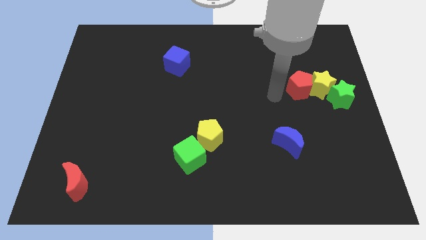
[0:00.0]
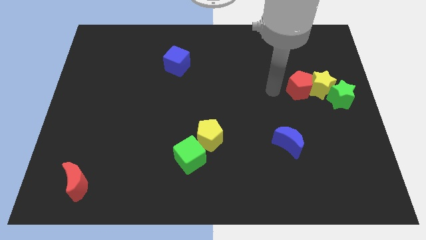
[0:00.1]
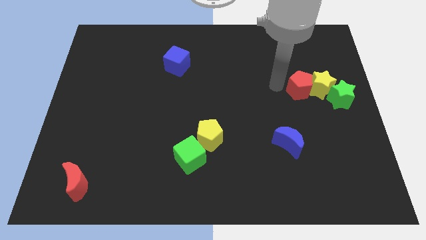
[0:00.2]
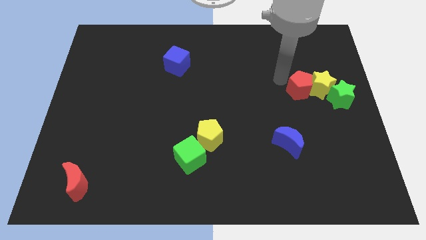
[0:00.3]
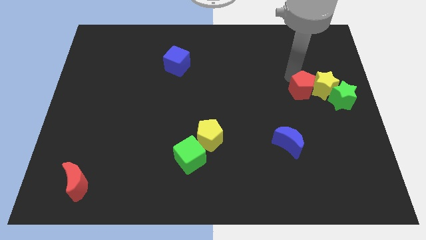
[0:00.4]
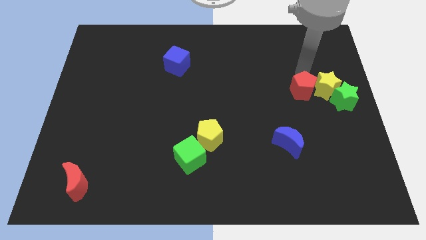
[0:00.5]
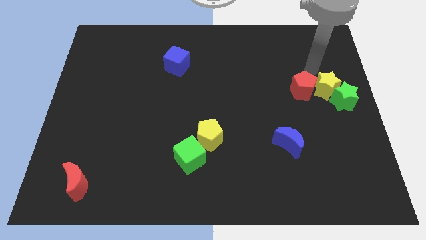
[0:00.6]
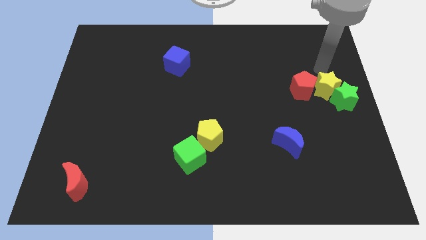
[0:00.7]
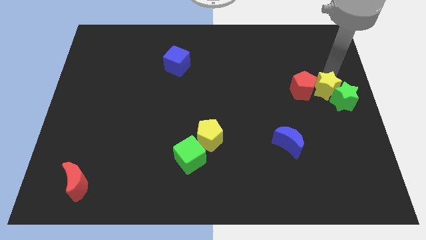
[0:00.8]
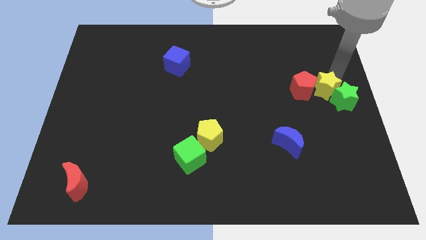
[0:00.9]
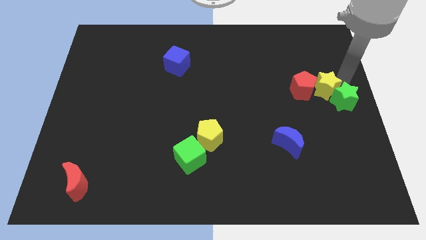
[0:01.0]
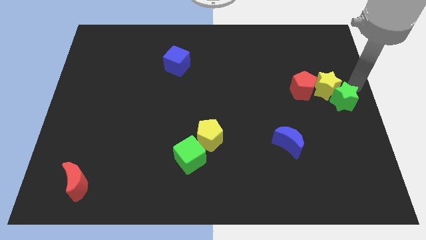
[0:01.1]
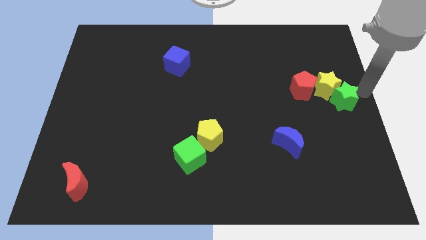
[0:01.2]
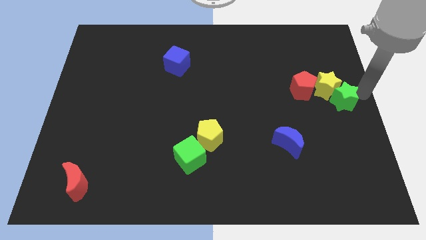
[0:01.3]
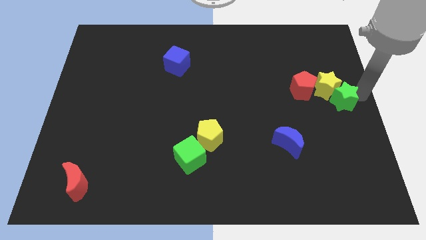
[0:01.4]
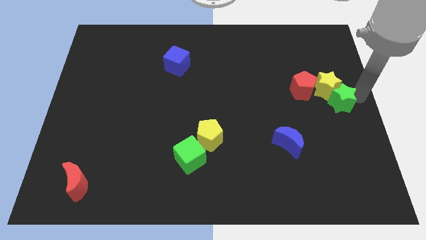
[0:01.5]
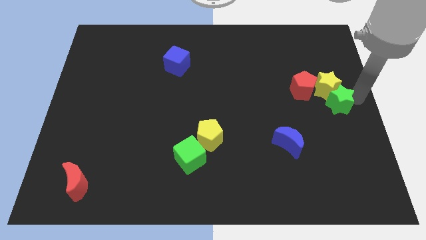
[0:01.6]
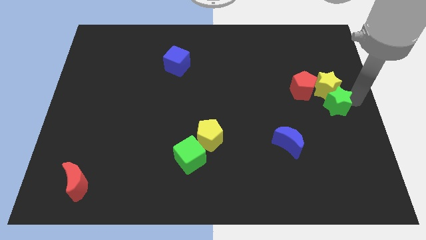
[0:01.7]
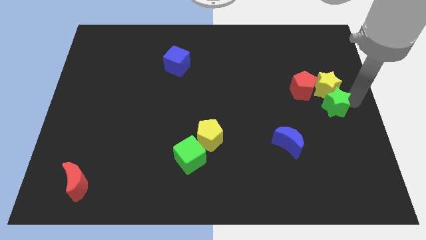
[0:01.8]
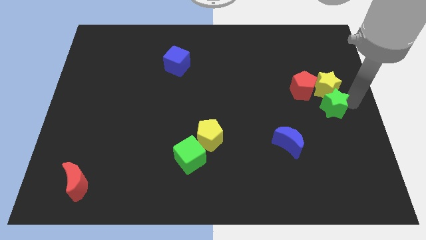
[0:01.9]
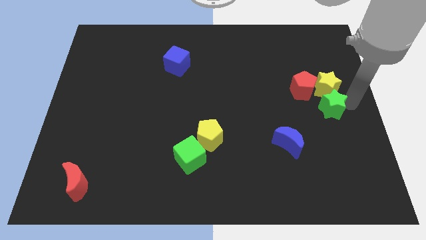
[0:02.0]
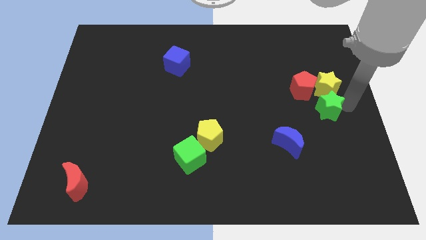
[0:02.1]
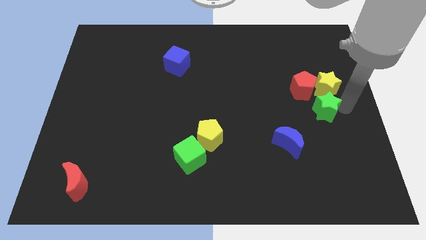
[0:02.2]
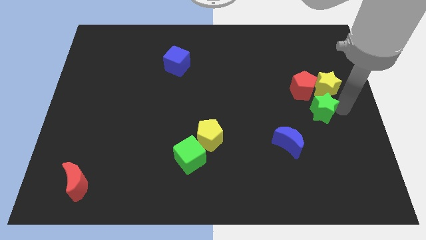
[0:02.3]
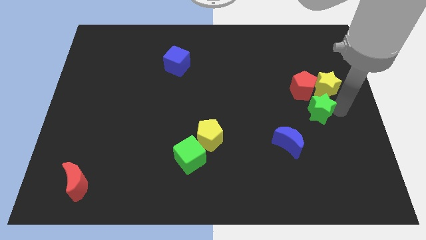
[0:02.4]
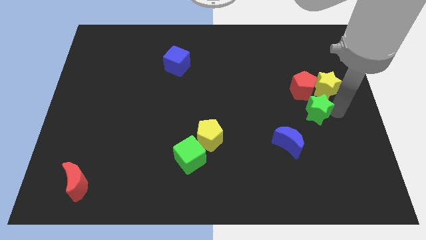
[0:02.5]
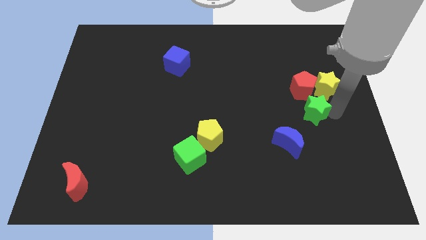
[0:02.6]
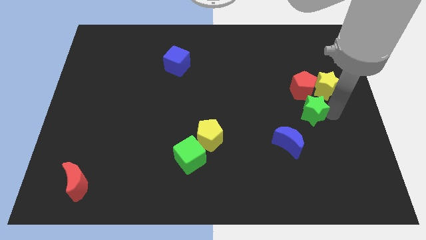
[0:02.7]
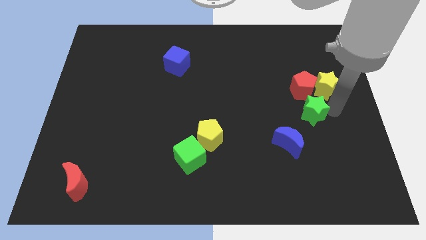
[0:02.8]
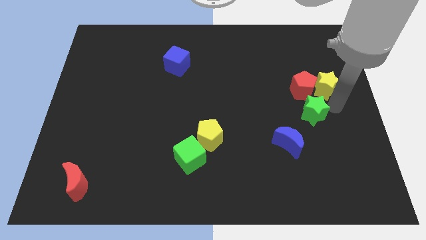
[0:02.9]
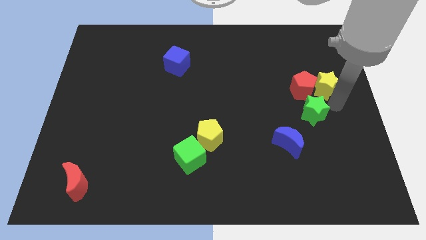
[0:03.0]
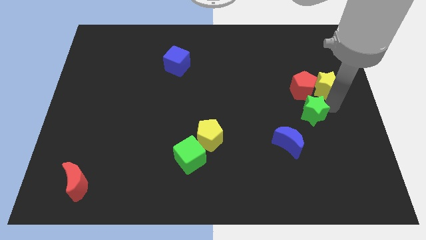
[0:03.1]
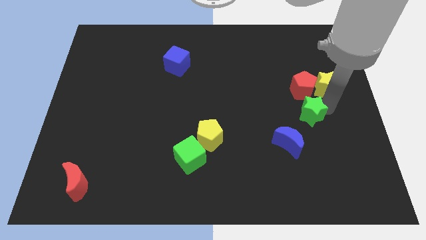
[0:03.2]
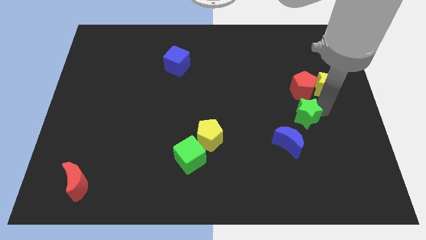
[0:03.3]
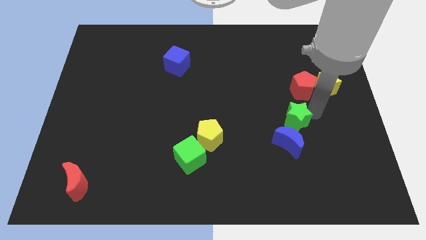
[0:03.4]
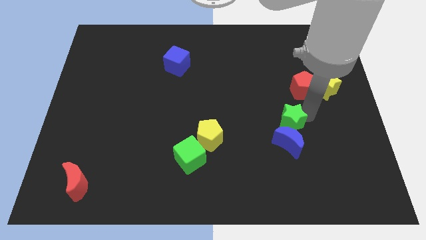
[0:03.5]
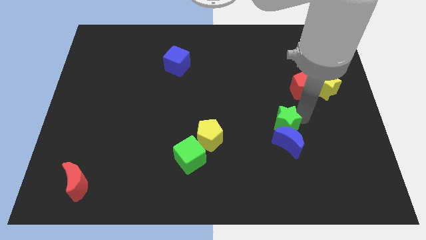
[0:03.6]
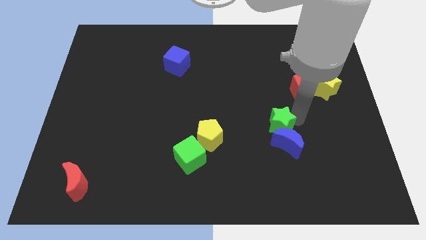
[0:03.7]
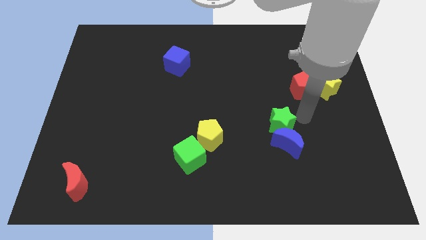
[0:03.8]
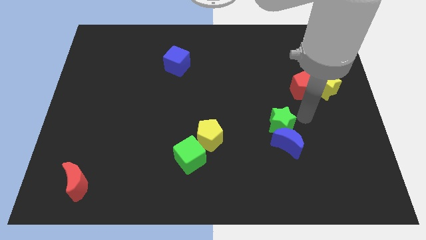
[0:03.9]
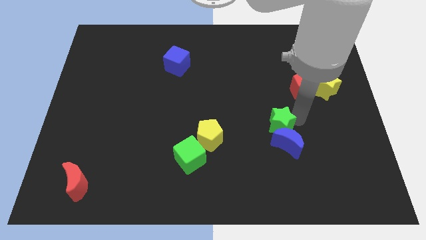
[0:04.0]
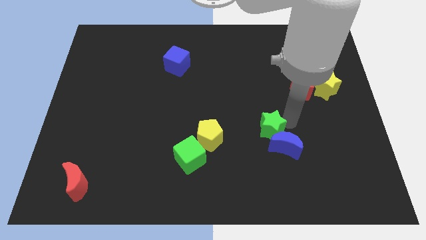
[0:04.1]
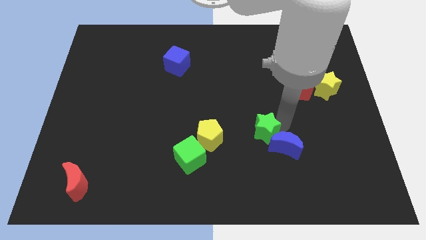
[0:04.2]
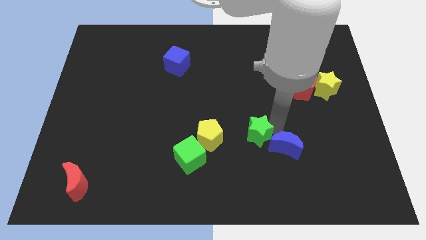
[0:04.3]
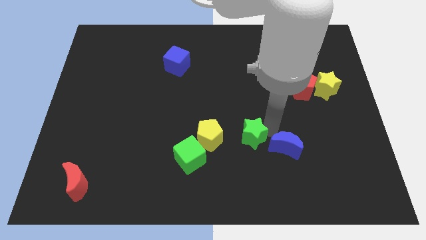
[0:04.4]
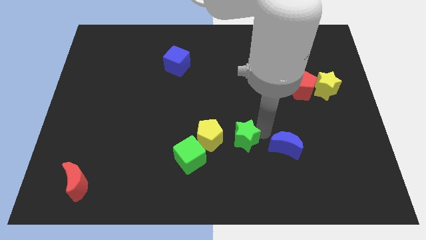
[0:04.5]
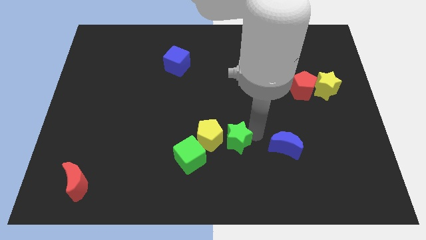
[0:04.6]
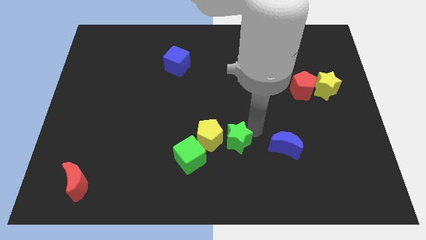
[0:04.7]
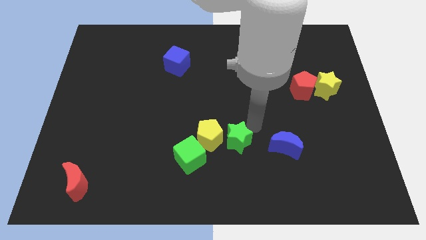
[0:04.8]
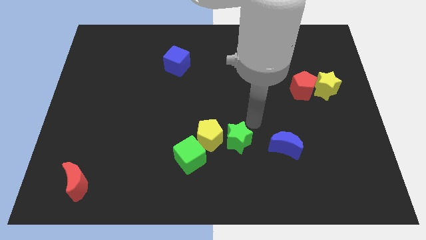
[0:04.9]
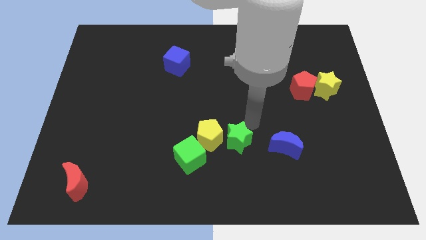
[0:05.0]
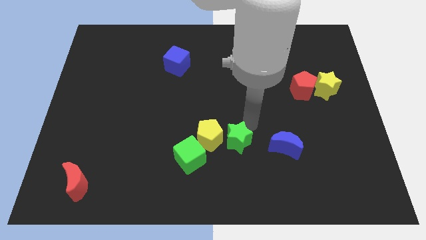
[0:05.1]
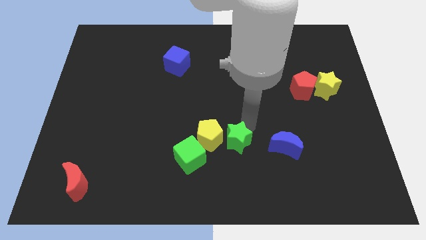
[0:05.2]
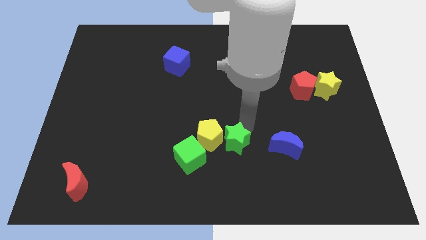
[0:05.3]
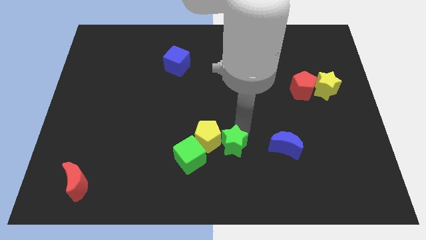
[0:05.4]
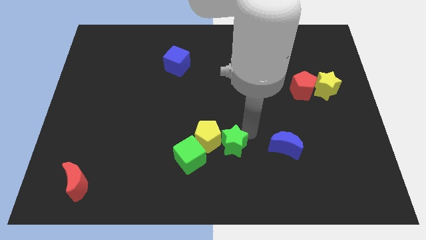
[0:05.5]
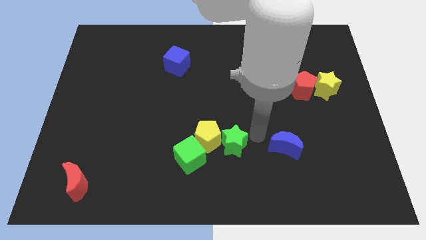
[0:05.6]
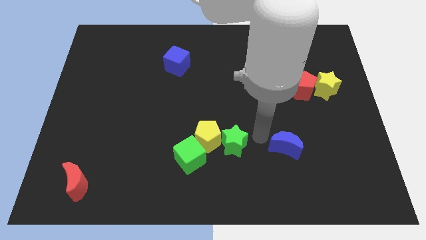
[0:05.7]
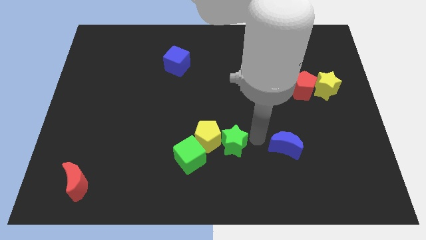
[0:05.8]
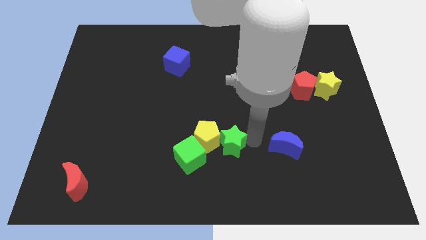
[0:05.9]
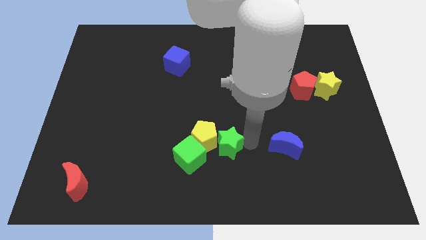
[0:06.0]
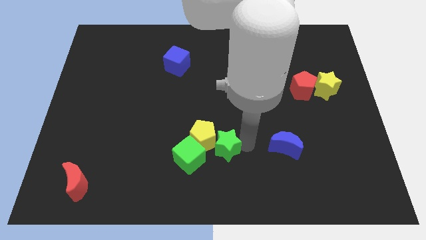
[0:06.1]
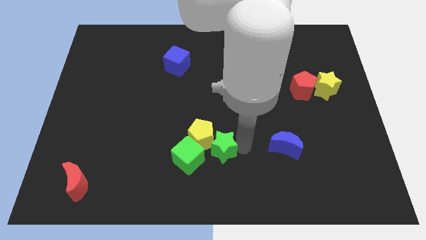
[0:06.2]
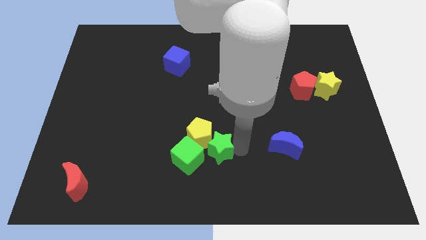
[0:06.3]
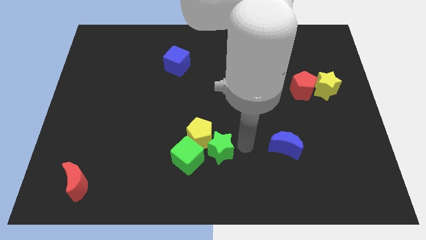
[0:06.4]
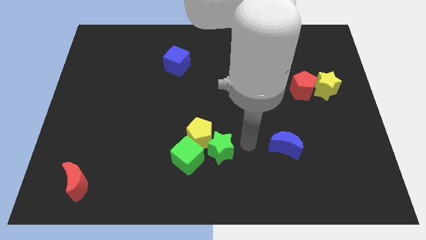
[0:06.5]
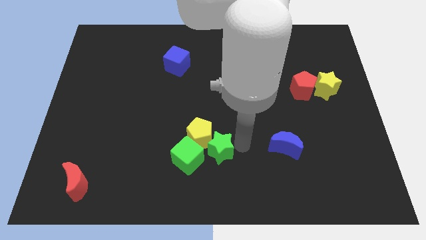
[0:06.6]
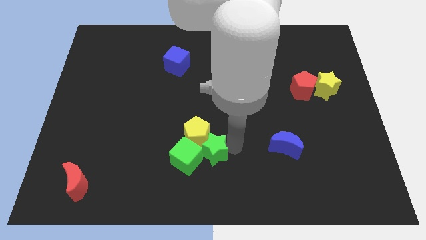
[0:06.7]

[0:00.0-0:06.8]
push the green star close to the green cube
